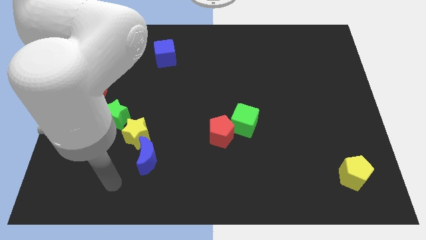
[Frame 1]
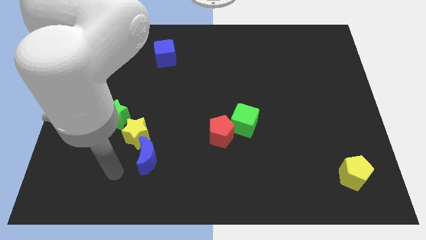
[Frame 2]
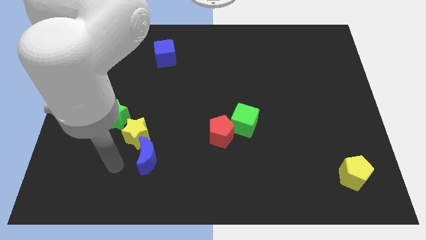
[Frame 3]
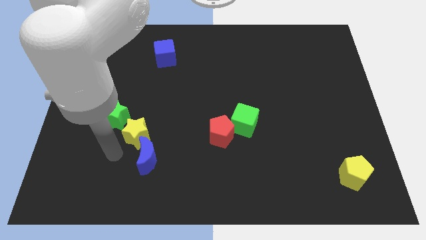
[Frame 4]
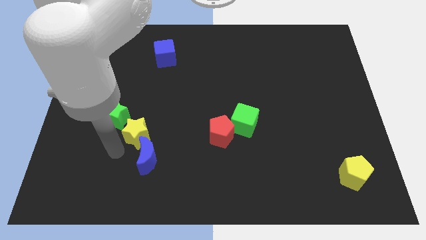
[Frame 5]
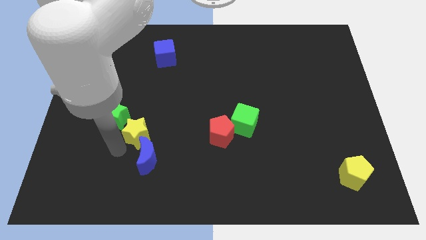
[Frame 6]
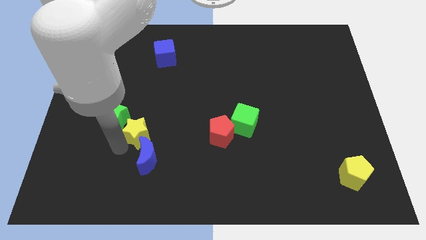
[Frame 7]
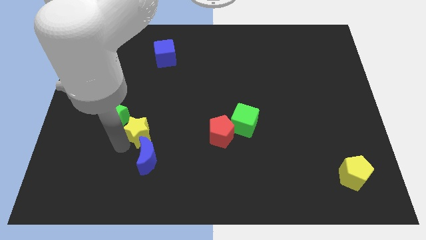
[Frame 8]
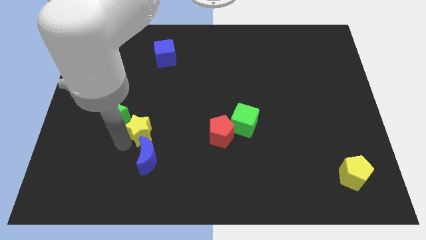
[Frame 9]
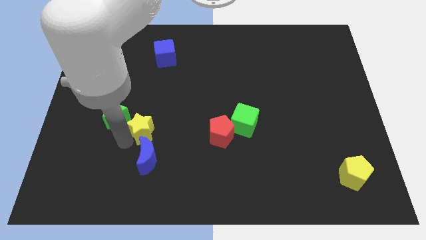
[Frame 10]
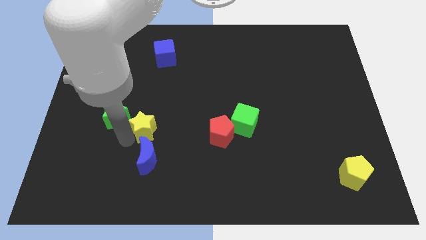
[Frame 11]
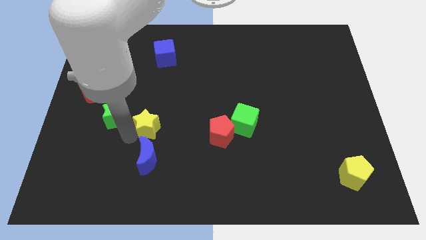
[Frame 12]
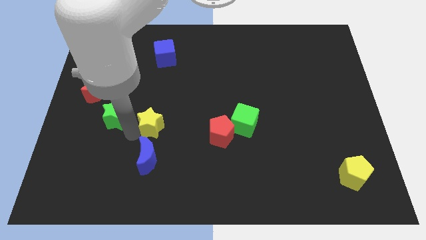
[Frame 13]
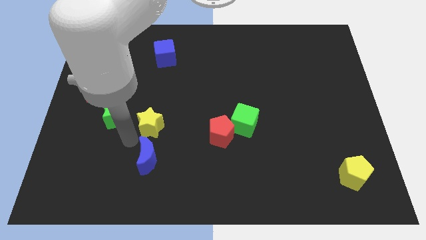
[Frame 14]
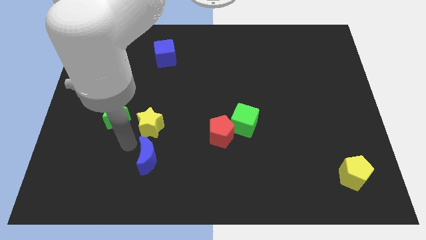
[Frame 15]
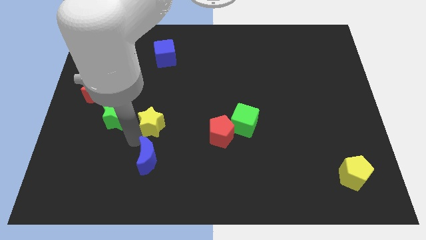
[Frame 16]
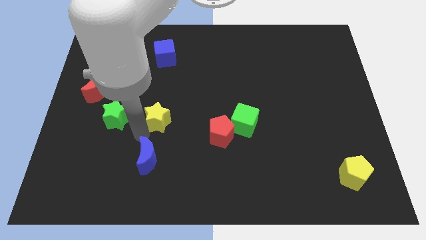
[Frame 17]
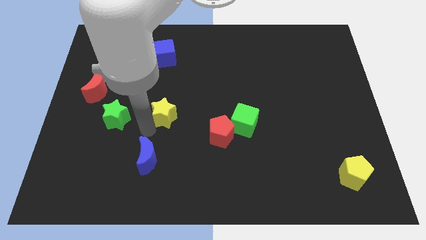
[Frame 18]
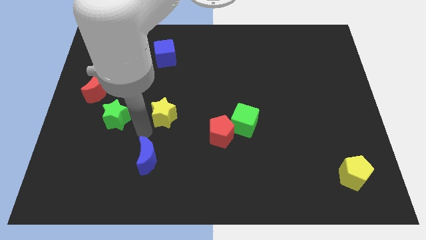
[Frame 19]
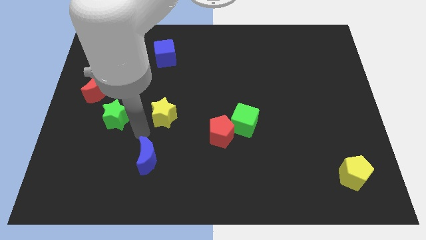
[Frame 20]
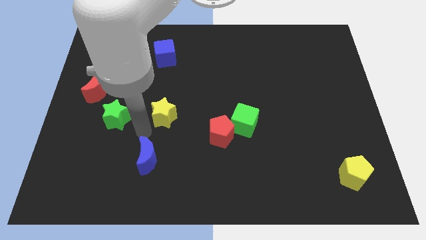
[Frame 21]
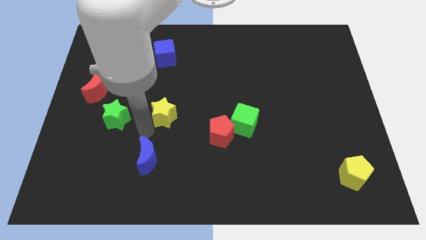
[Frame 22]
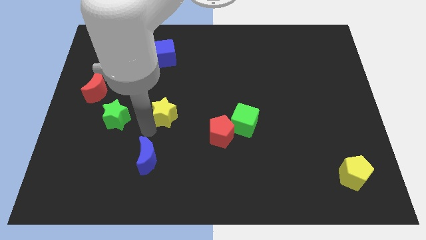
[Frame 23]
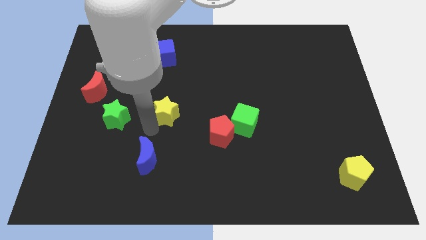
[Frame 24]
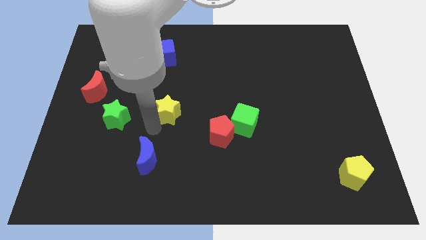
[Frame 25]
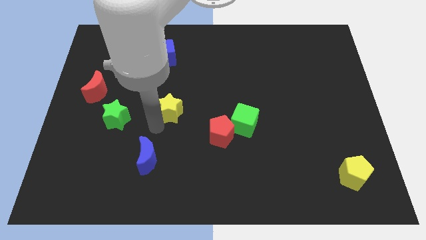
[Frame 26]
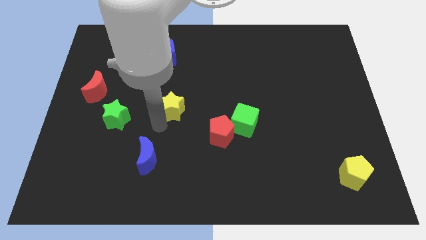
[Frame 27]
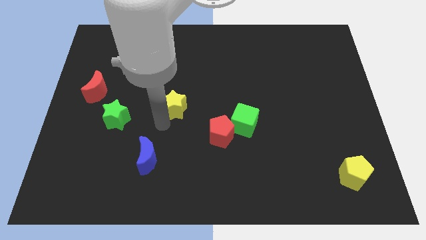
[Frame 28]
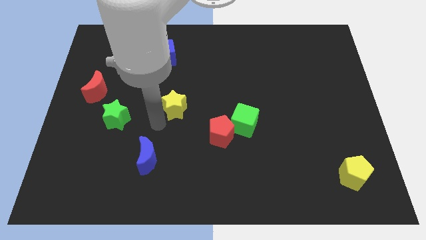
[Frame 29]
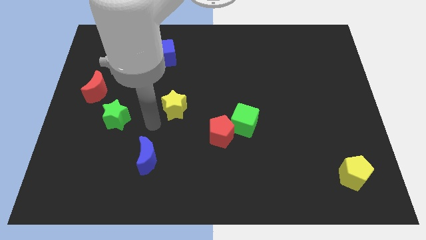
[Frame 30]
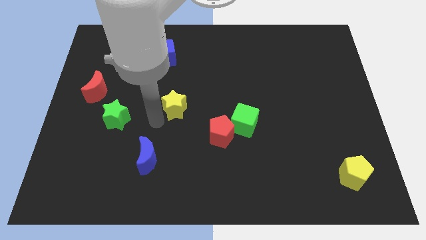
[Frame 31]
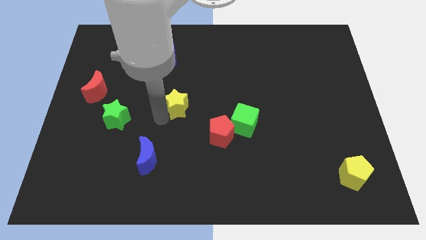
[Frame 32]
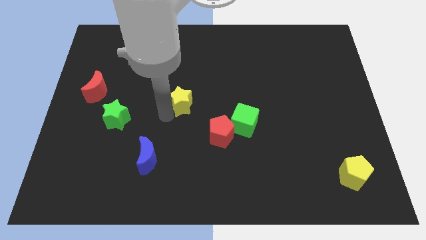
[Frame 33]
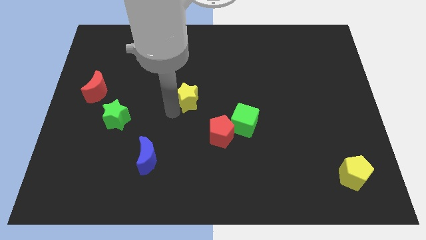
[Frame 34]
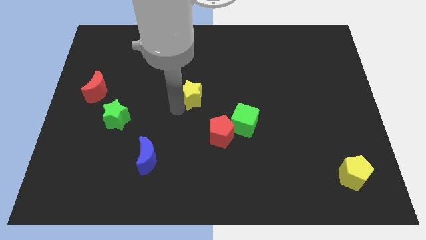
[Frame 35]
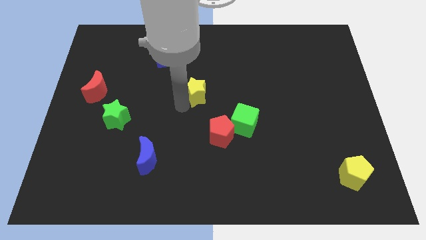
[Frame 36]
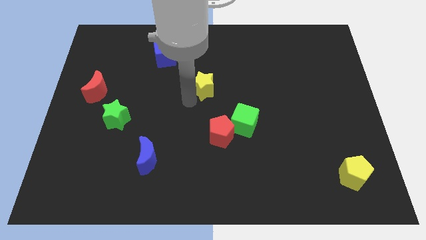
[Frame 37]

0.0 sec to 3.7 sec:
slide the yellow star upwards and to the right

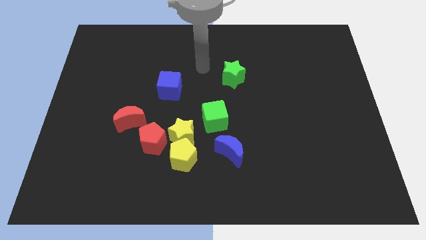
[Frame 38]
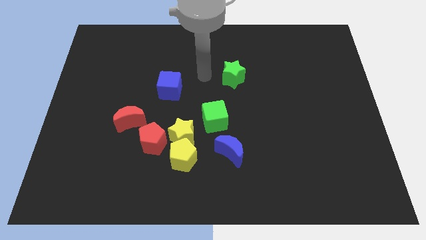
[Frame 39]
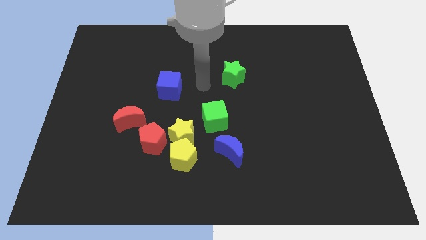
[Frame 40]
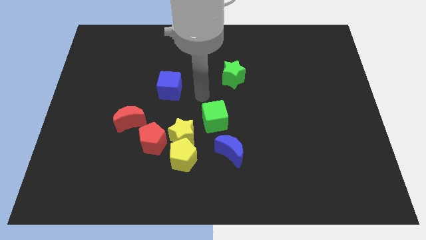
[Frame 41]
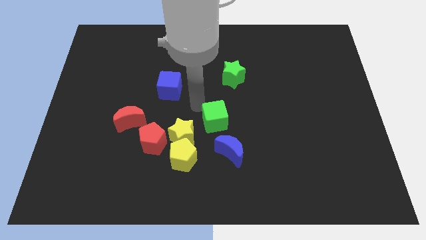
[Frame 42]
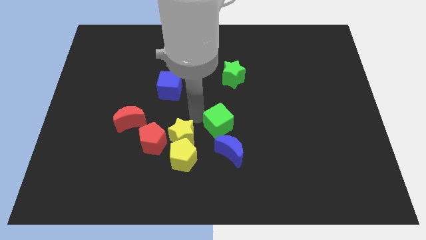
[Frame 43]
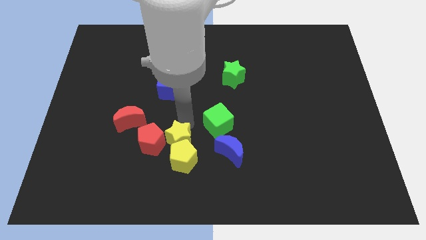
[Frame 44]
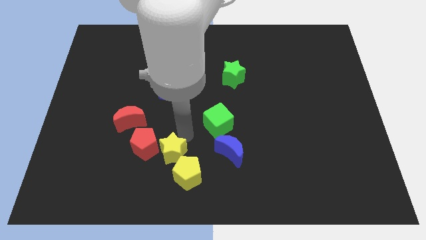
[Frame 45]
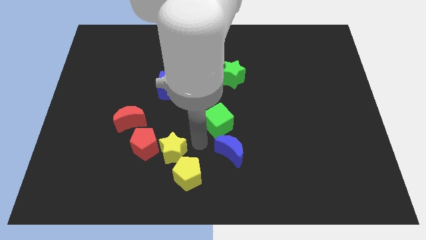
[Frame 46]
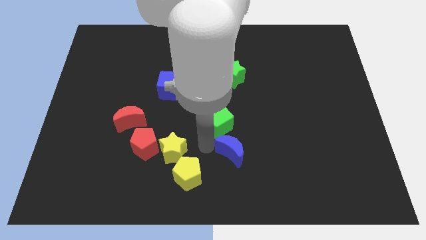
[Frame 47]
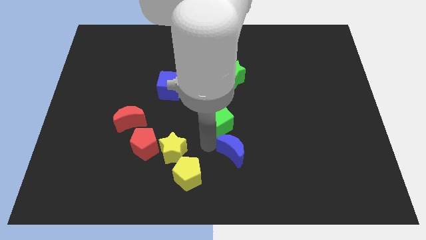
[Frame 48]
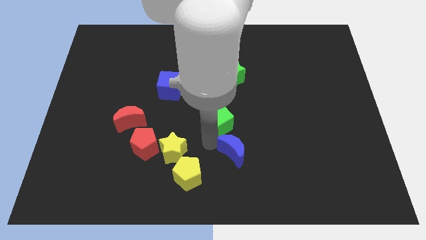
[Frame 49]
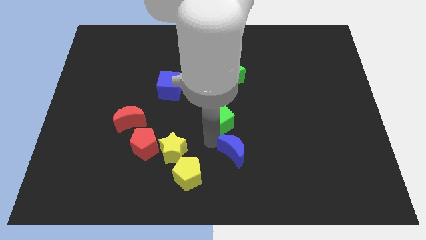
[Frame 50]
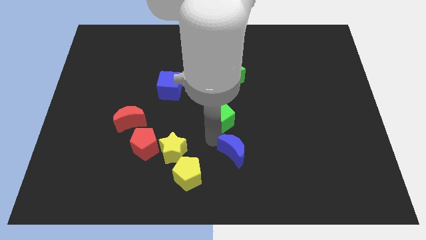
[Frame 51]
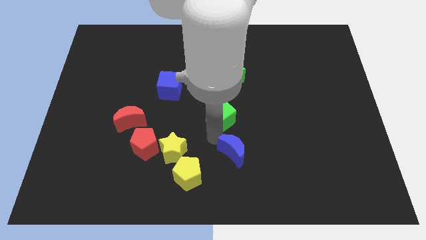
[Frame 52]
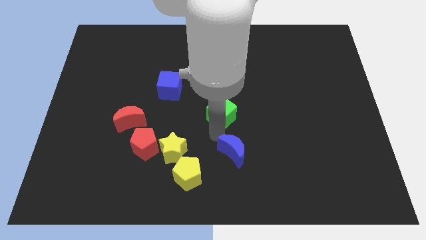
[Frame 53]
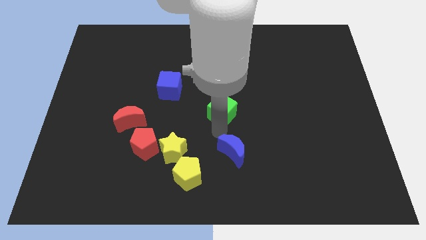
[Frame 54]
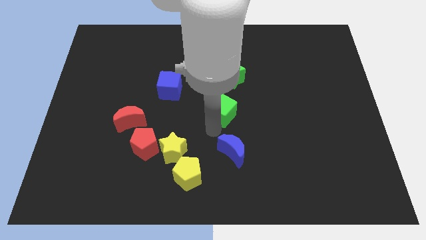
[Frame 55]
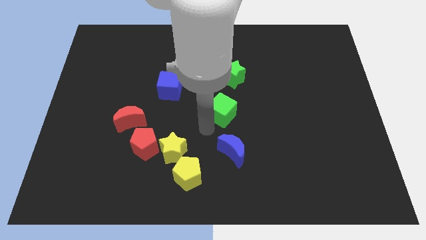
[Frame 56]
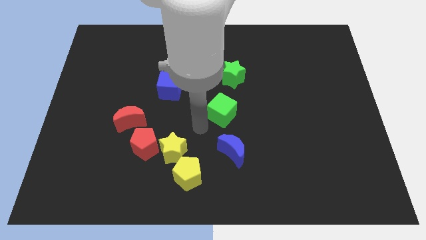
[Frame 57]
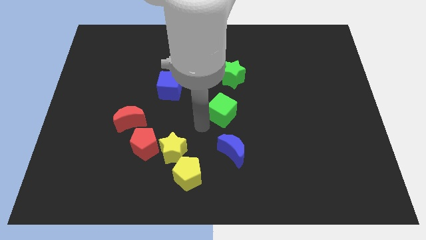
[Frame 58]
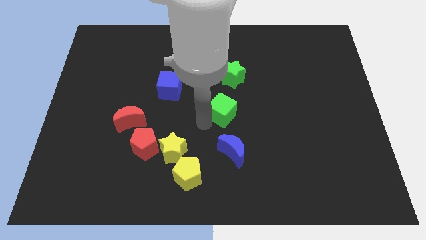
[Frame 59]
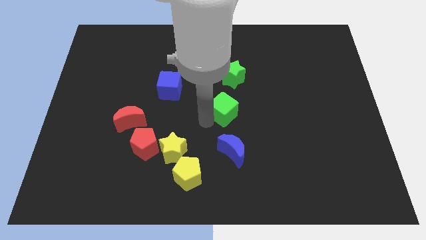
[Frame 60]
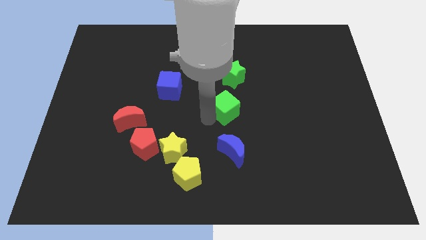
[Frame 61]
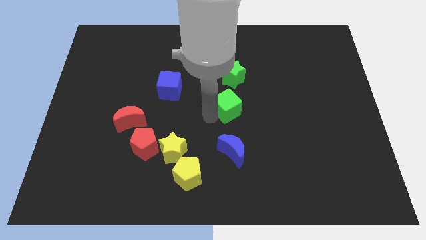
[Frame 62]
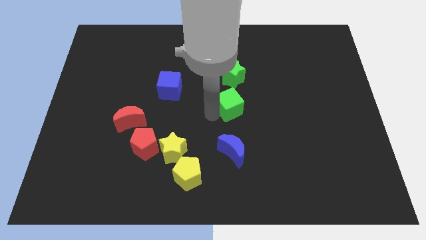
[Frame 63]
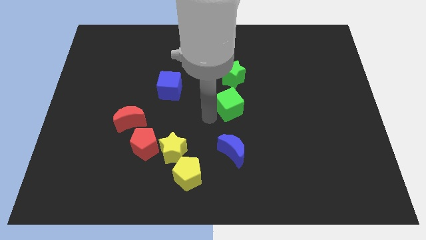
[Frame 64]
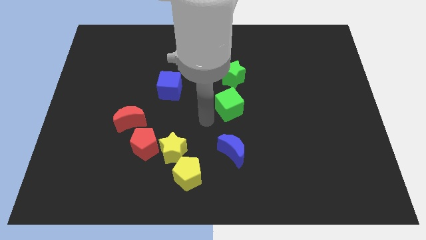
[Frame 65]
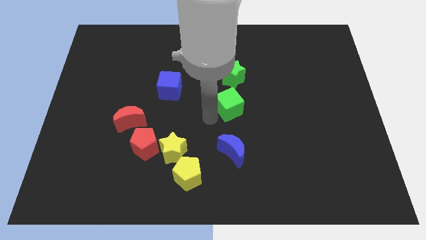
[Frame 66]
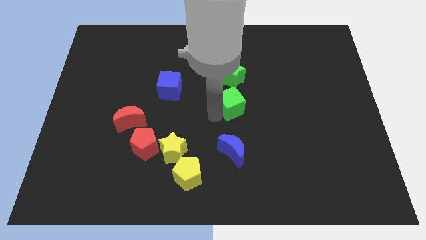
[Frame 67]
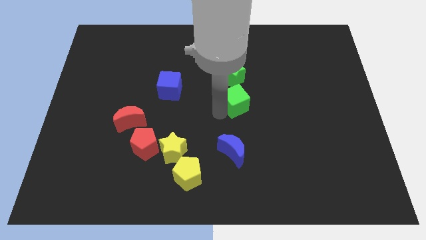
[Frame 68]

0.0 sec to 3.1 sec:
slightly push the green cube upwards and right diagonally

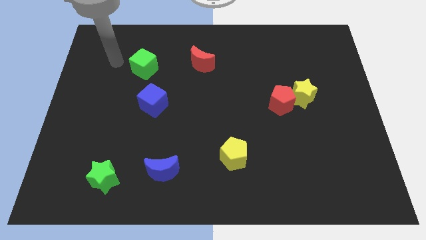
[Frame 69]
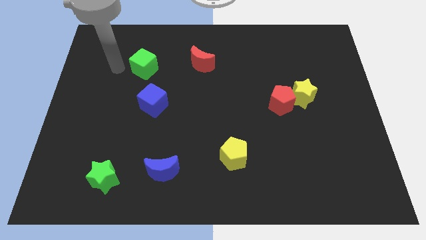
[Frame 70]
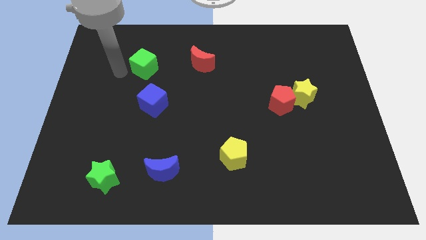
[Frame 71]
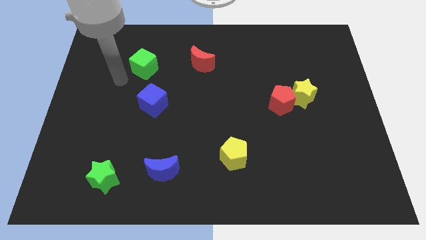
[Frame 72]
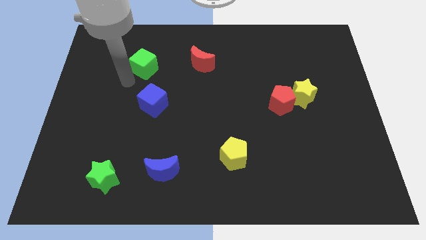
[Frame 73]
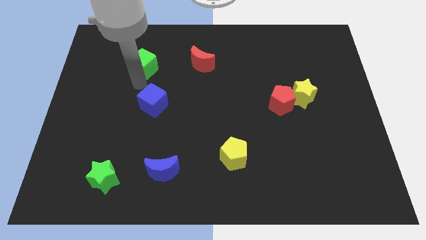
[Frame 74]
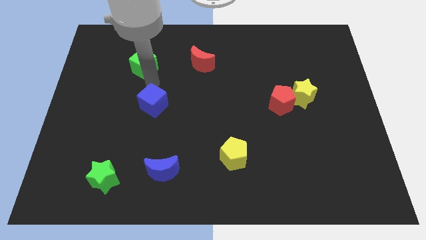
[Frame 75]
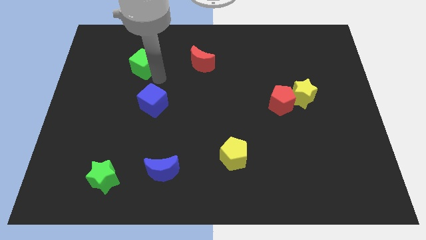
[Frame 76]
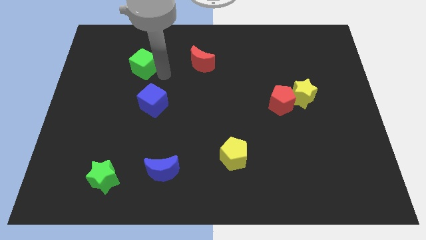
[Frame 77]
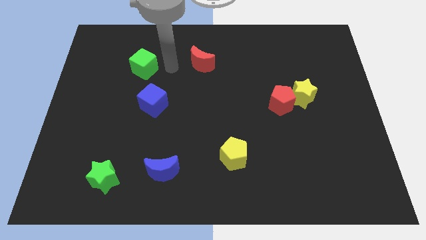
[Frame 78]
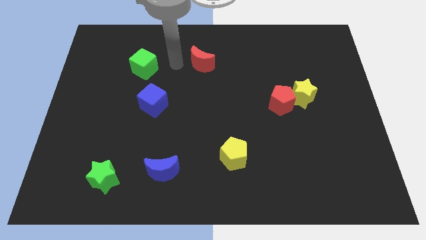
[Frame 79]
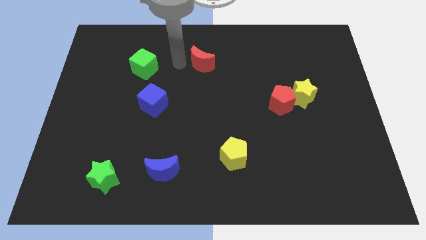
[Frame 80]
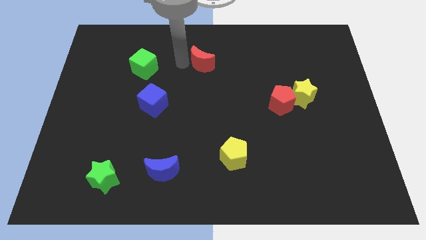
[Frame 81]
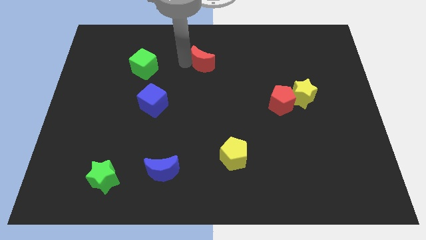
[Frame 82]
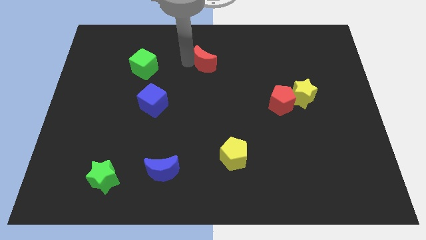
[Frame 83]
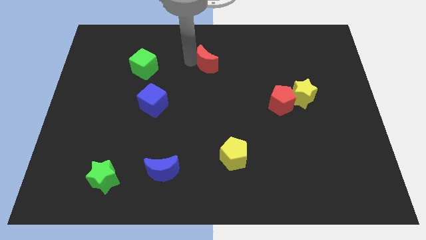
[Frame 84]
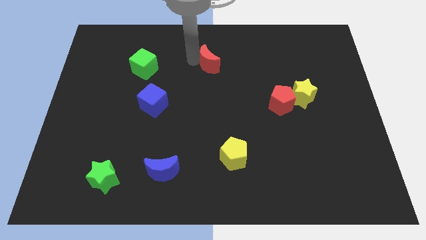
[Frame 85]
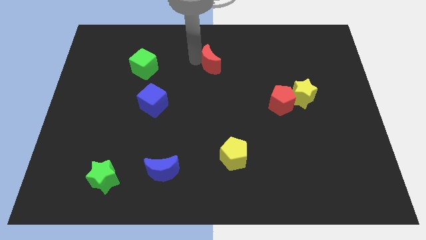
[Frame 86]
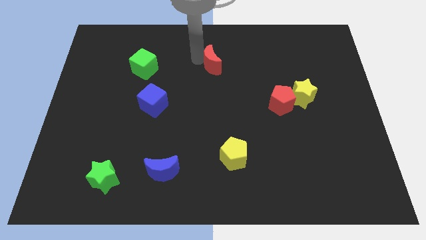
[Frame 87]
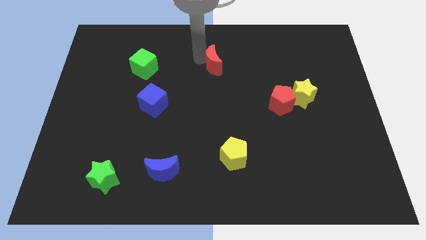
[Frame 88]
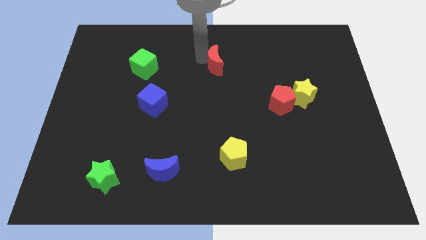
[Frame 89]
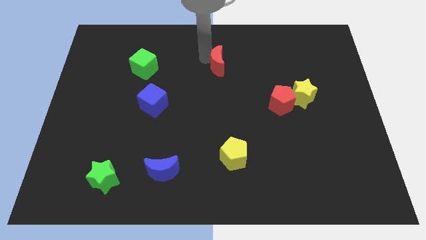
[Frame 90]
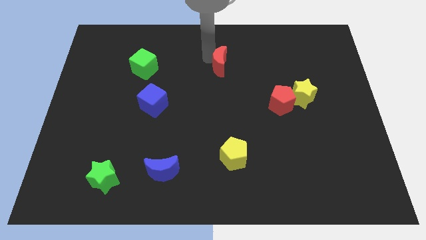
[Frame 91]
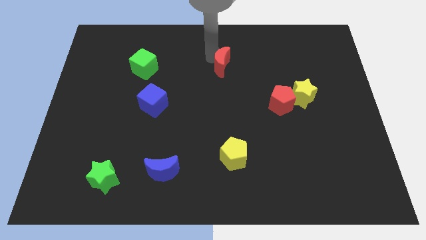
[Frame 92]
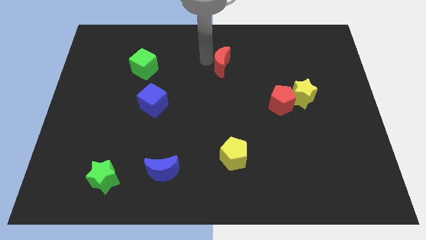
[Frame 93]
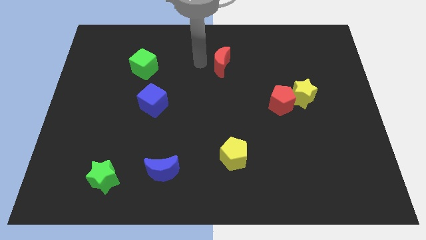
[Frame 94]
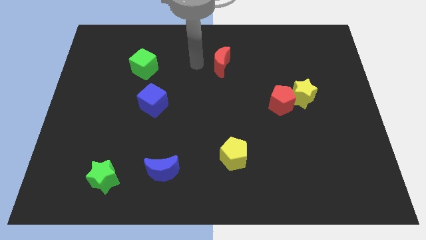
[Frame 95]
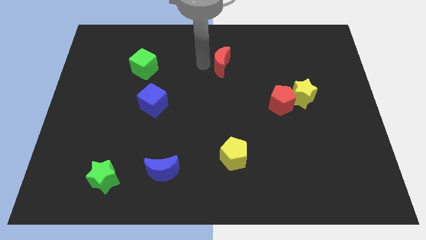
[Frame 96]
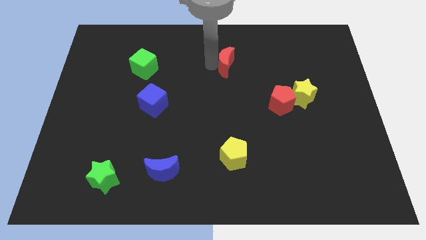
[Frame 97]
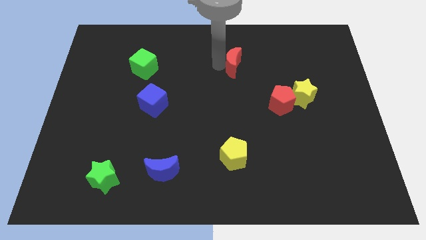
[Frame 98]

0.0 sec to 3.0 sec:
push the red moon a little to the right
